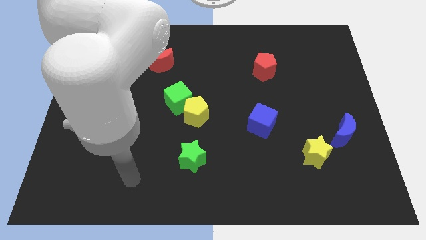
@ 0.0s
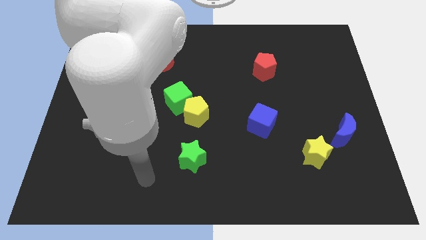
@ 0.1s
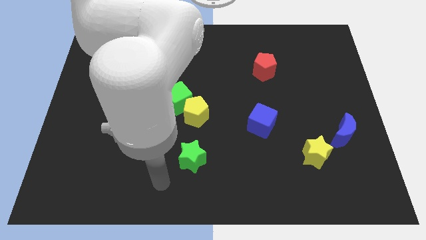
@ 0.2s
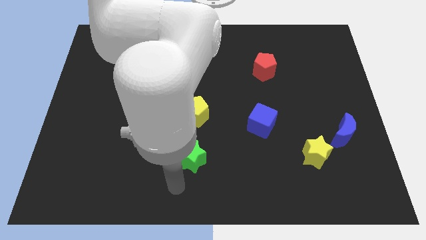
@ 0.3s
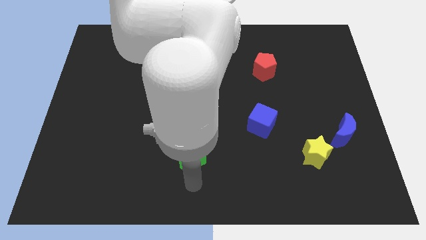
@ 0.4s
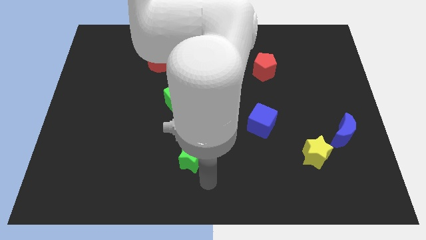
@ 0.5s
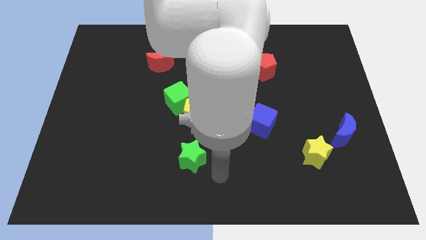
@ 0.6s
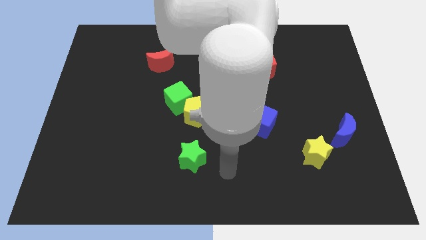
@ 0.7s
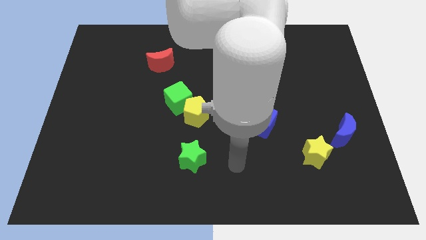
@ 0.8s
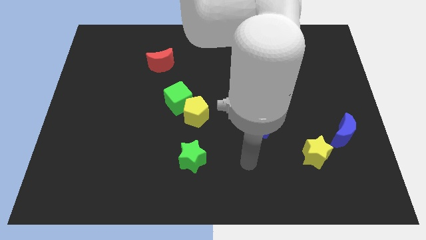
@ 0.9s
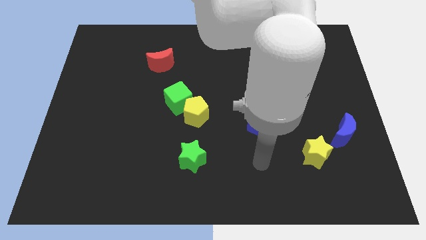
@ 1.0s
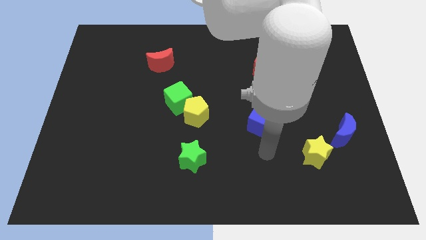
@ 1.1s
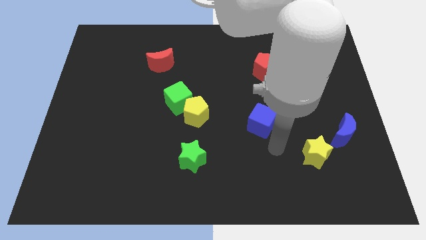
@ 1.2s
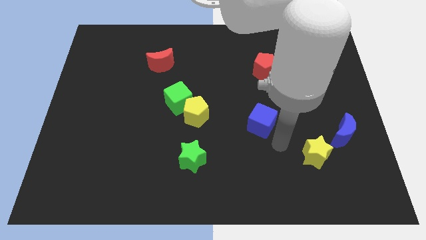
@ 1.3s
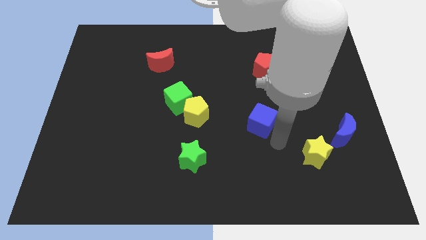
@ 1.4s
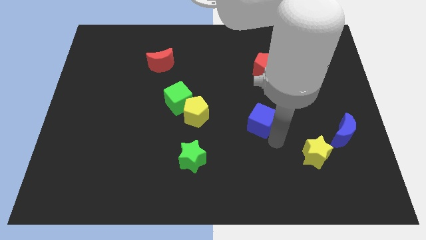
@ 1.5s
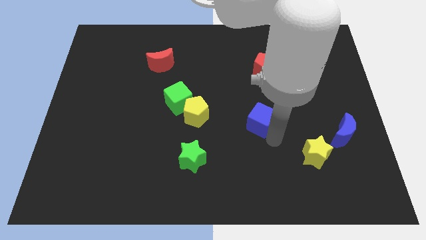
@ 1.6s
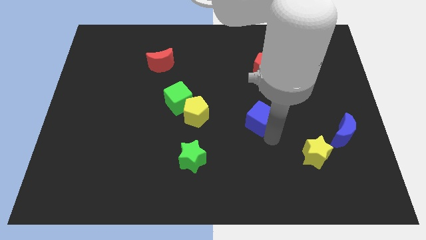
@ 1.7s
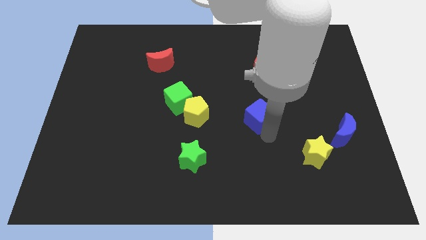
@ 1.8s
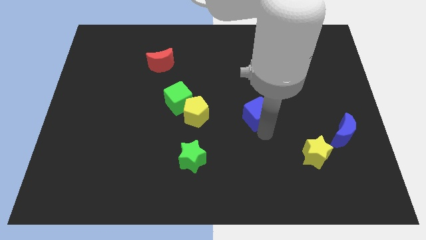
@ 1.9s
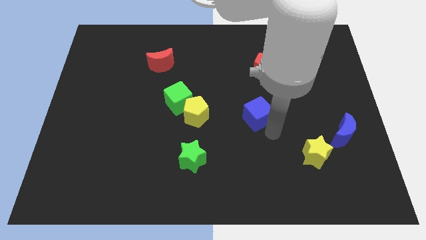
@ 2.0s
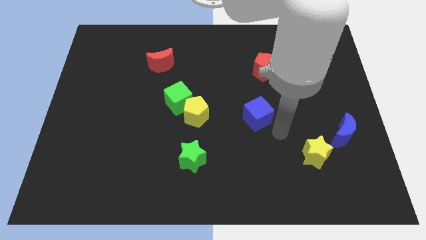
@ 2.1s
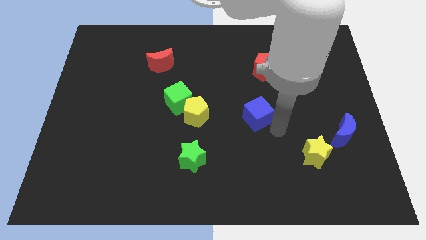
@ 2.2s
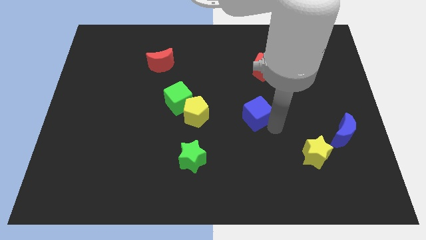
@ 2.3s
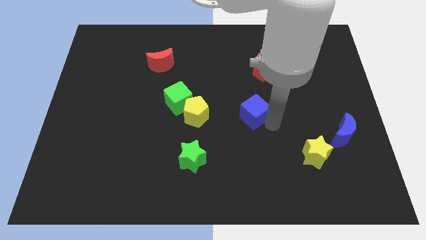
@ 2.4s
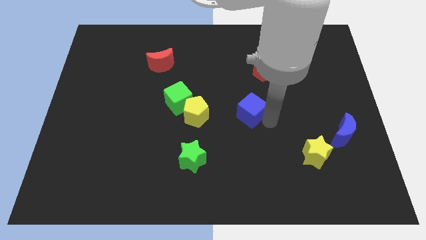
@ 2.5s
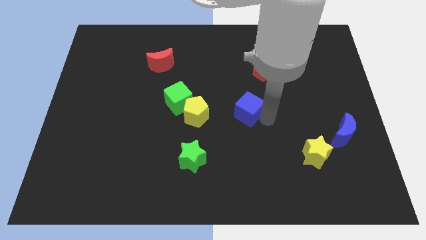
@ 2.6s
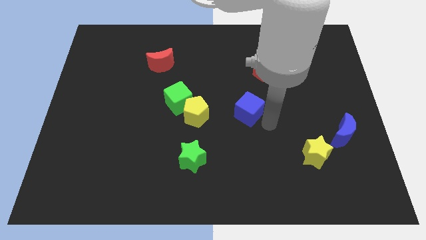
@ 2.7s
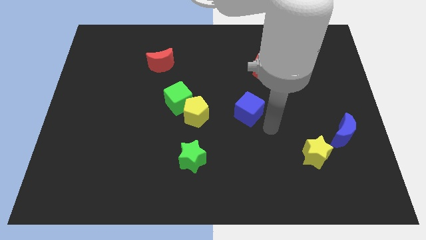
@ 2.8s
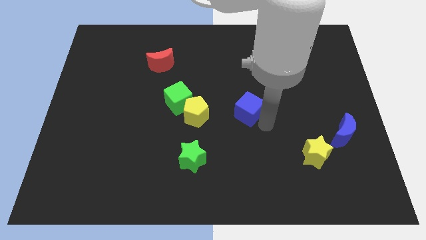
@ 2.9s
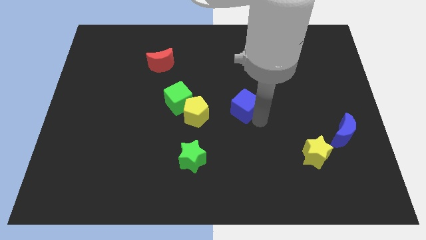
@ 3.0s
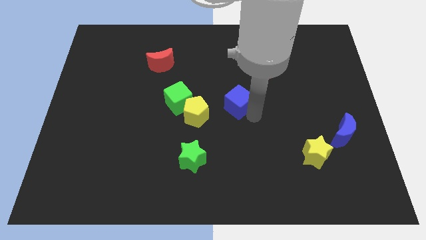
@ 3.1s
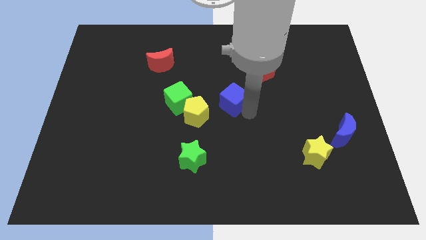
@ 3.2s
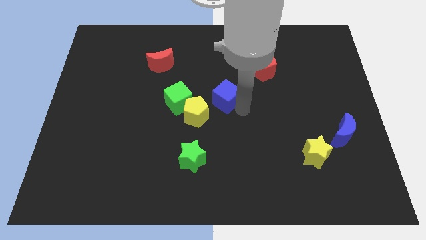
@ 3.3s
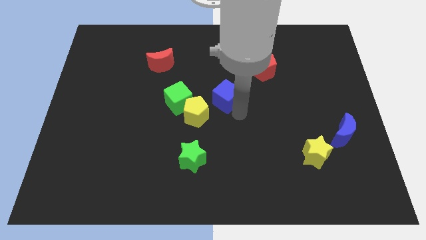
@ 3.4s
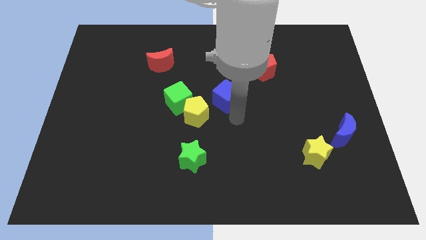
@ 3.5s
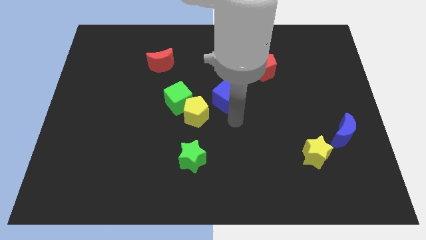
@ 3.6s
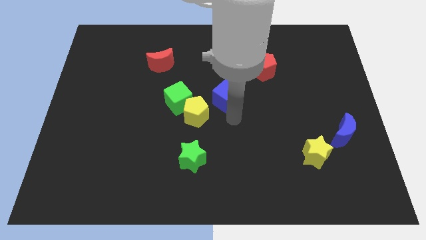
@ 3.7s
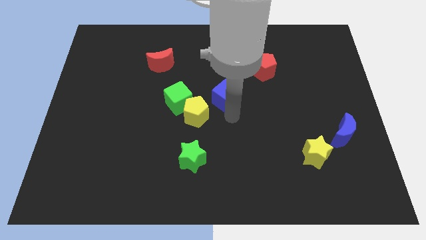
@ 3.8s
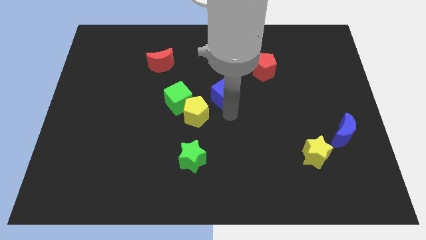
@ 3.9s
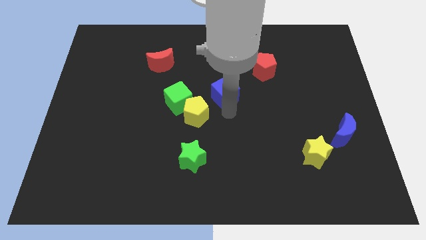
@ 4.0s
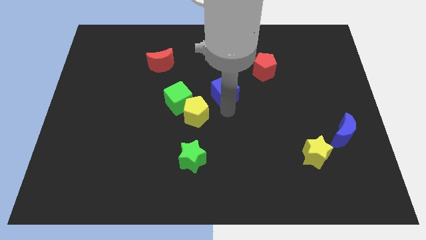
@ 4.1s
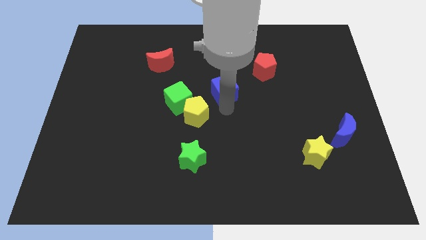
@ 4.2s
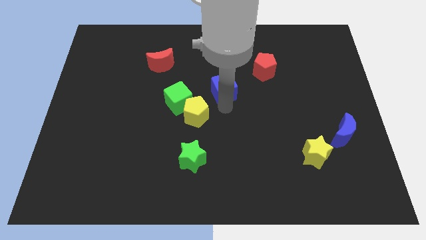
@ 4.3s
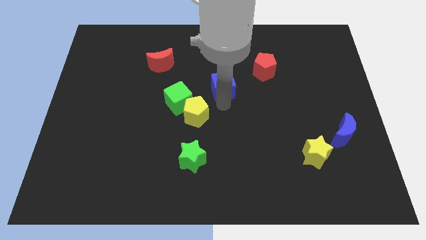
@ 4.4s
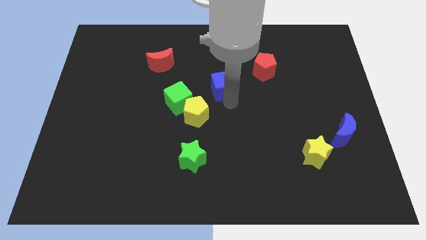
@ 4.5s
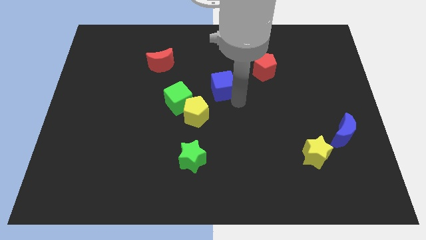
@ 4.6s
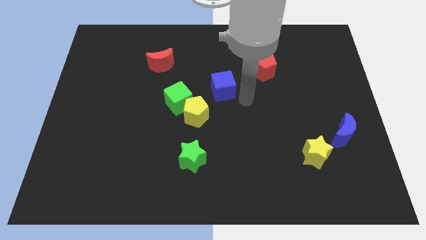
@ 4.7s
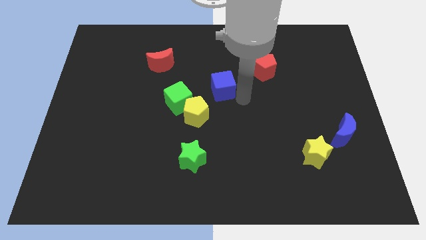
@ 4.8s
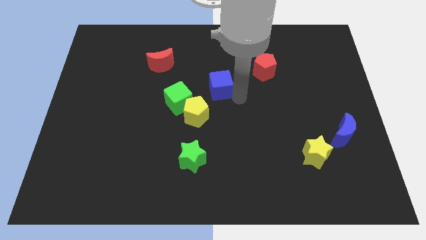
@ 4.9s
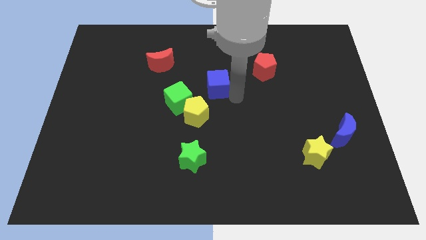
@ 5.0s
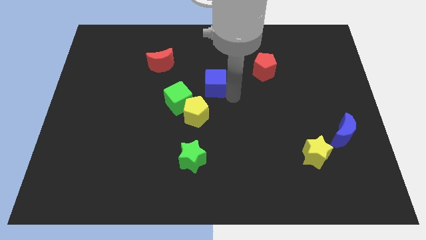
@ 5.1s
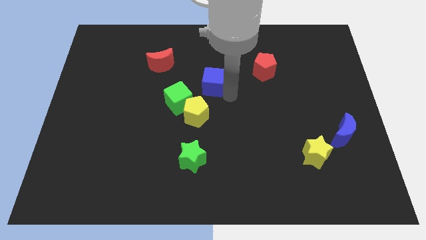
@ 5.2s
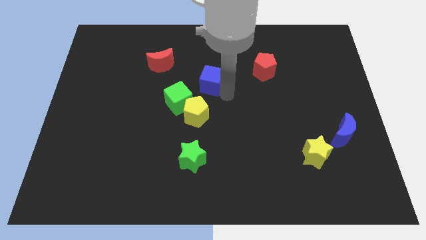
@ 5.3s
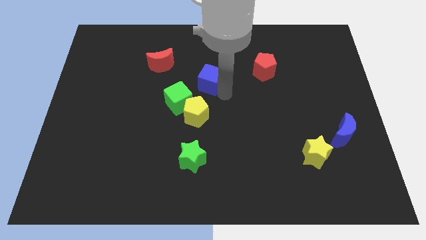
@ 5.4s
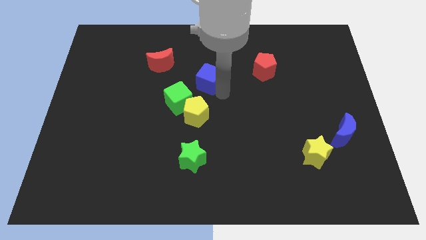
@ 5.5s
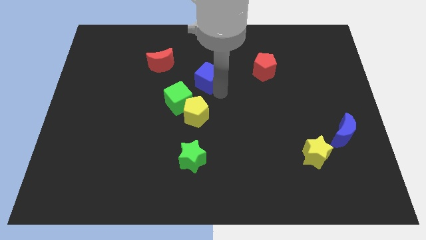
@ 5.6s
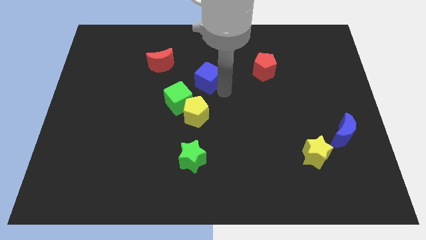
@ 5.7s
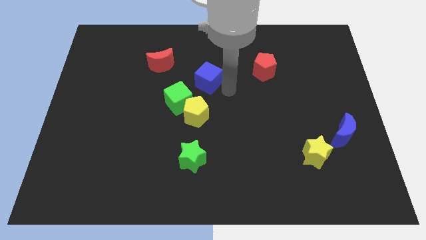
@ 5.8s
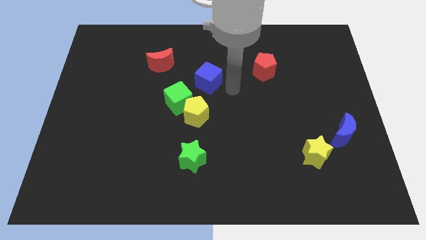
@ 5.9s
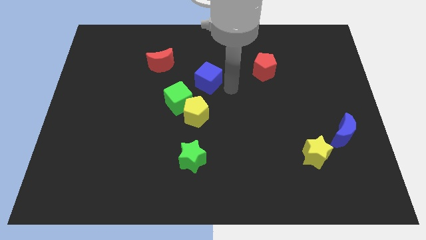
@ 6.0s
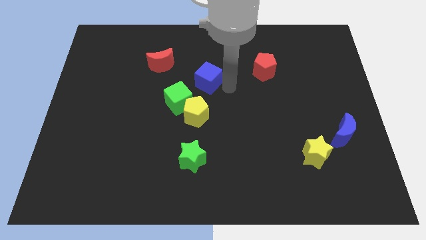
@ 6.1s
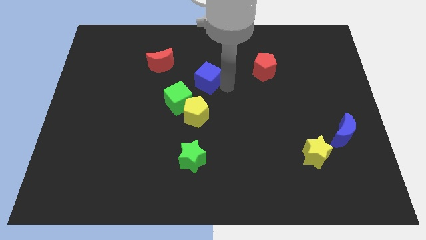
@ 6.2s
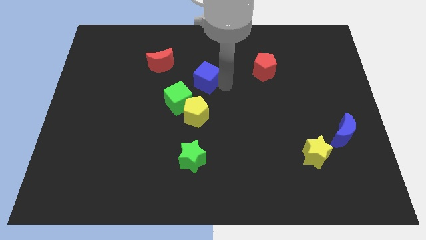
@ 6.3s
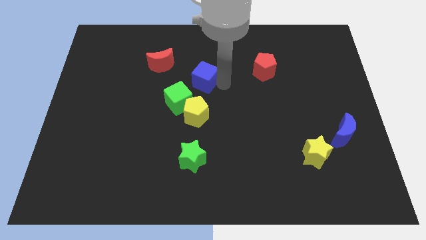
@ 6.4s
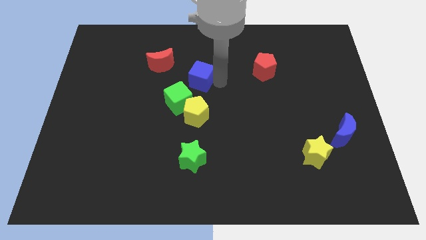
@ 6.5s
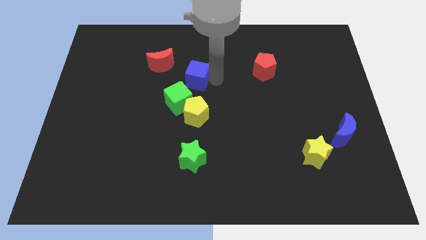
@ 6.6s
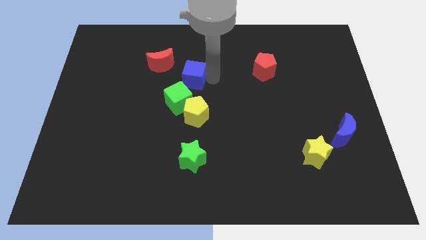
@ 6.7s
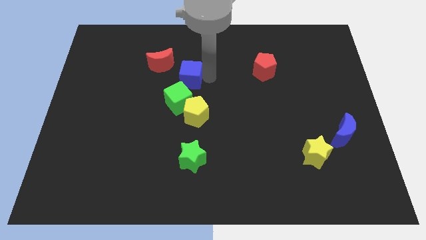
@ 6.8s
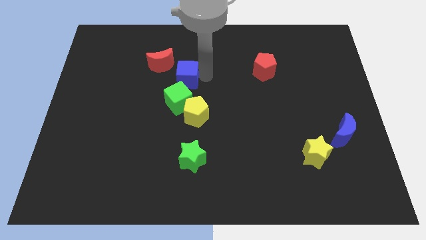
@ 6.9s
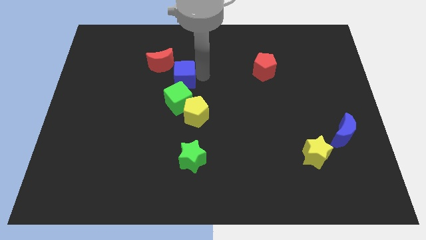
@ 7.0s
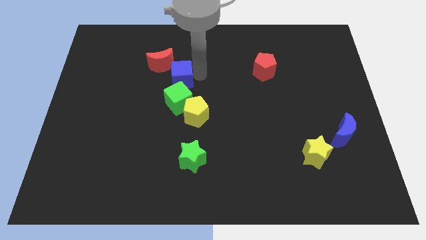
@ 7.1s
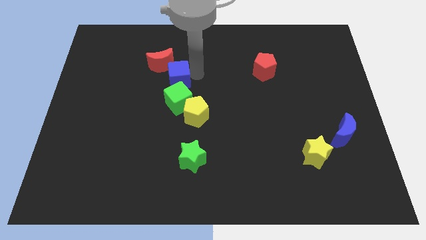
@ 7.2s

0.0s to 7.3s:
push the blue cube diagonally up and to the left of the green cube
